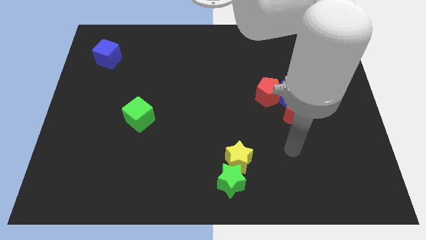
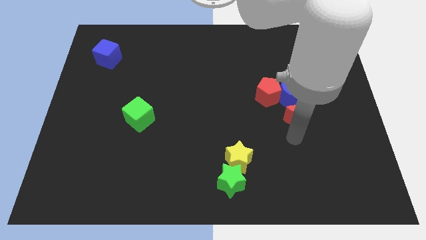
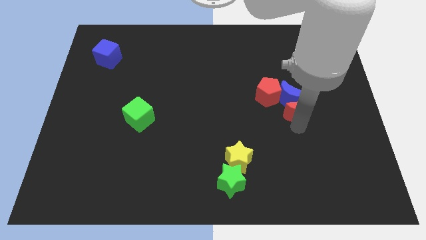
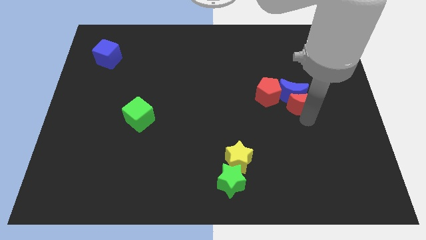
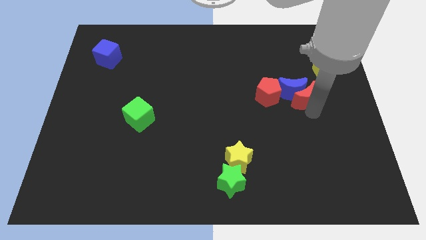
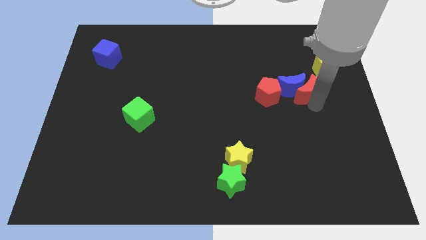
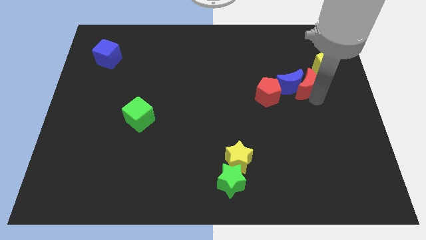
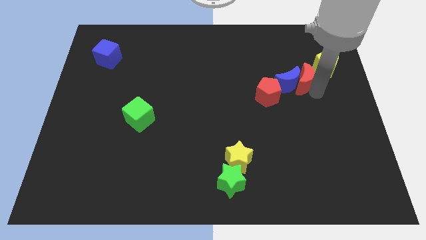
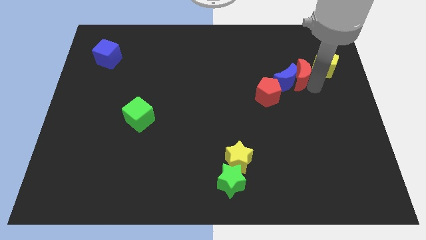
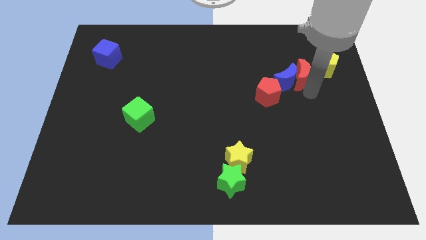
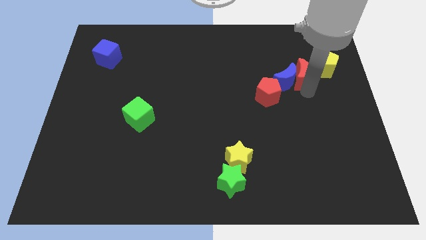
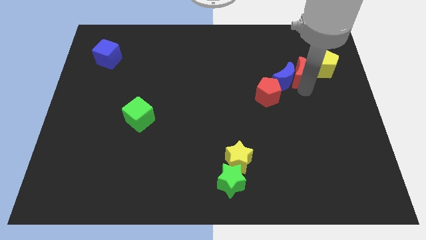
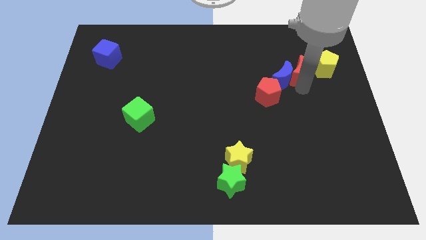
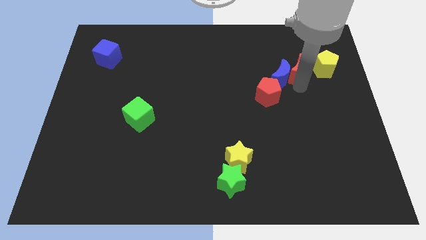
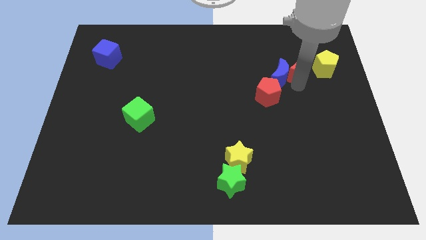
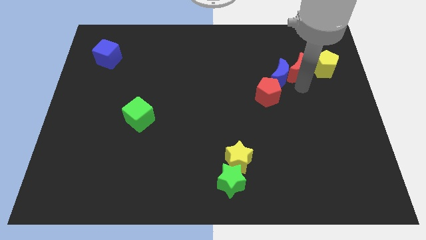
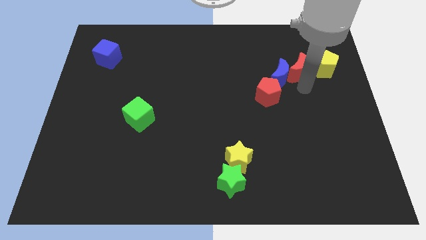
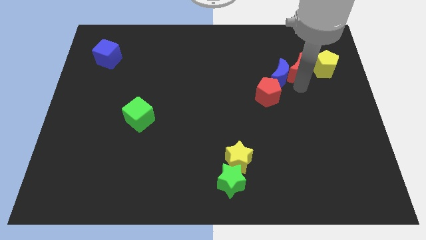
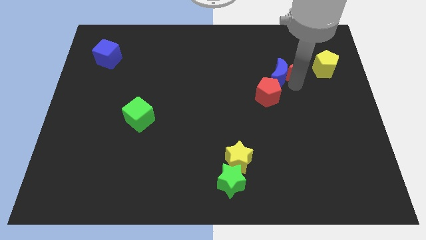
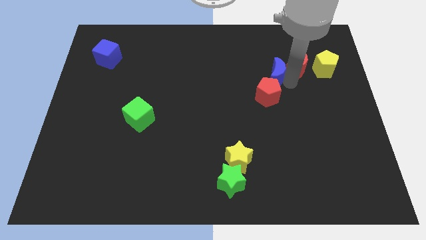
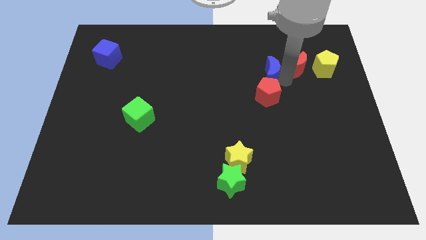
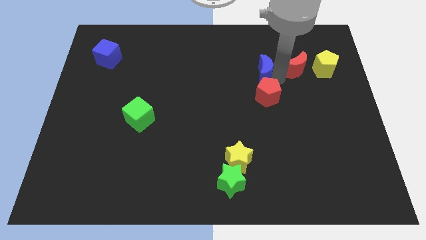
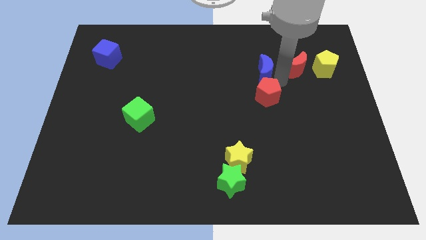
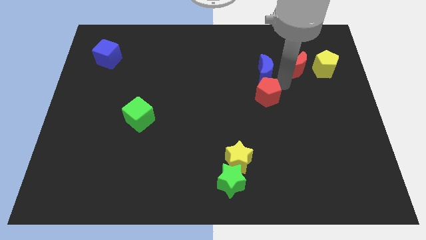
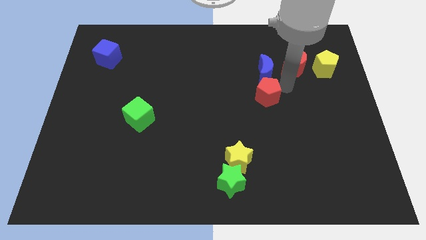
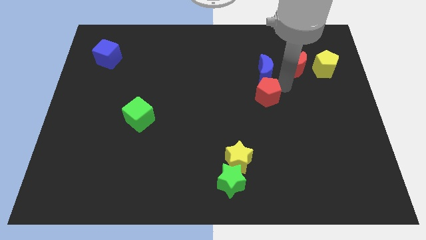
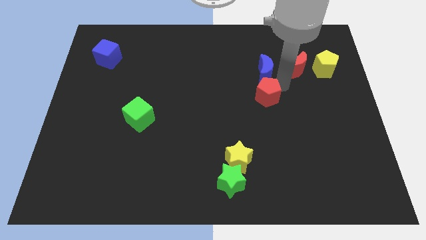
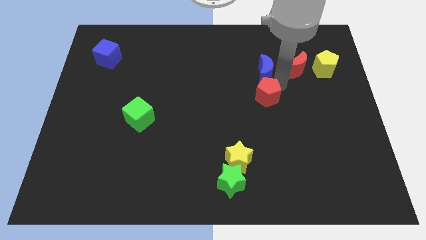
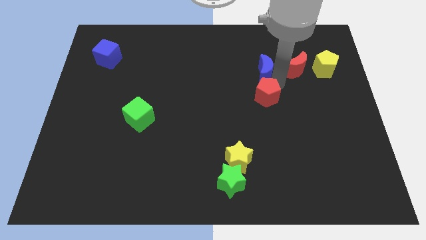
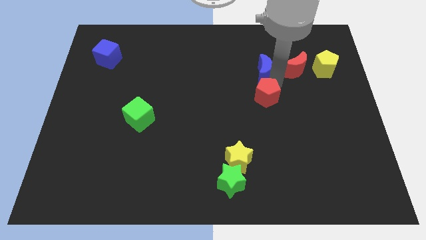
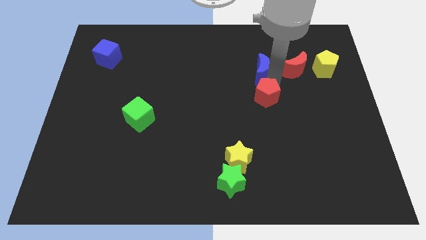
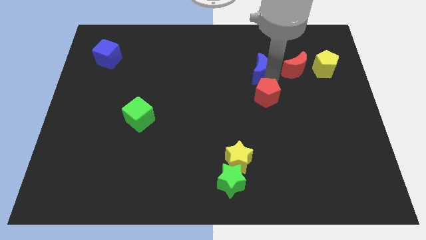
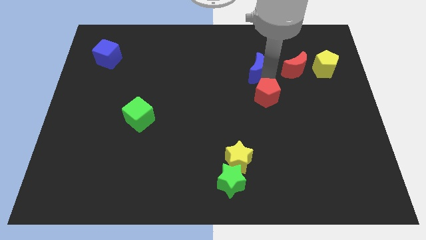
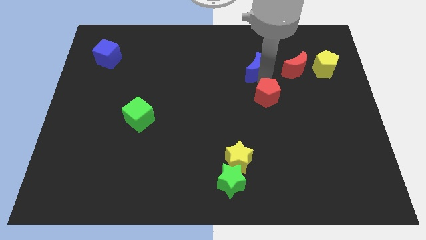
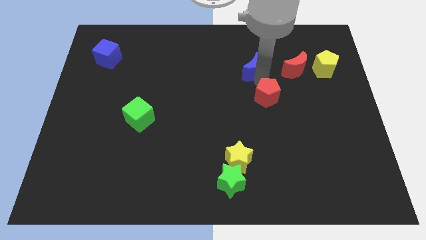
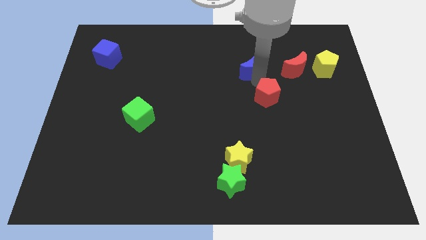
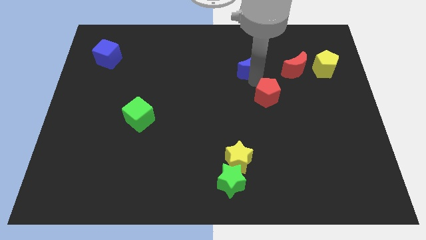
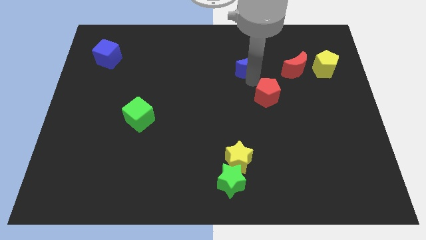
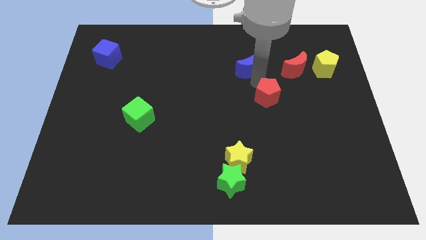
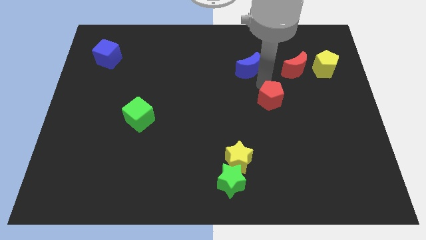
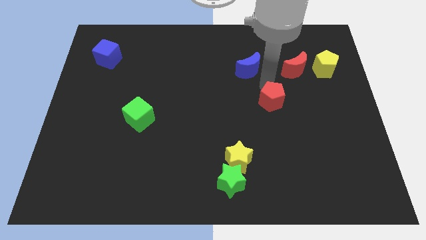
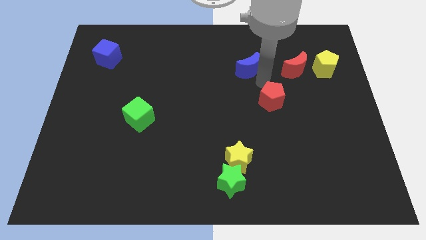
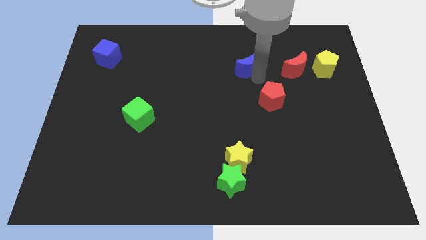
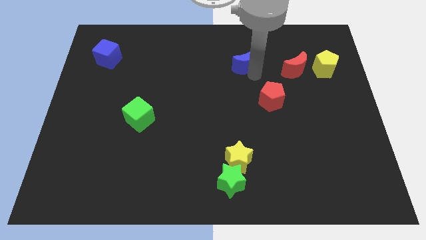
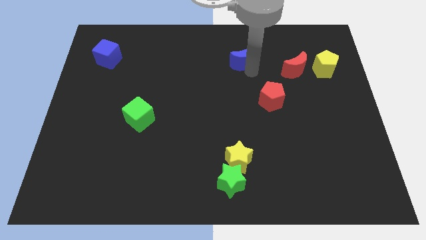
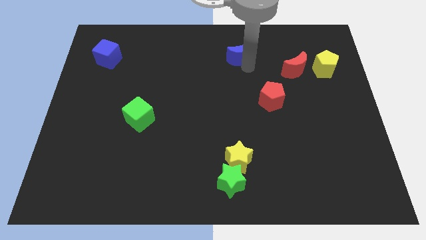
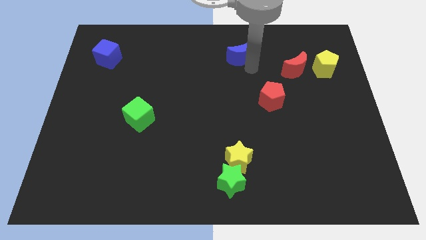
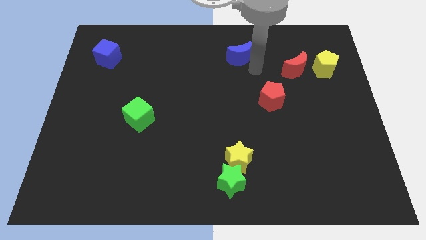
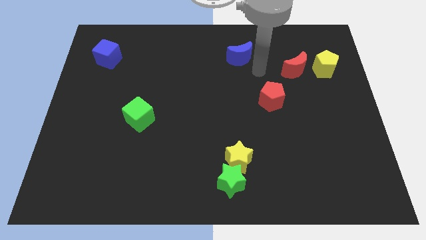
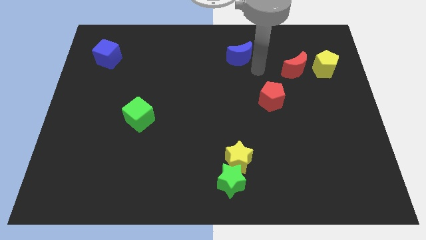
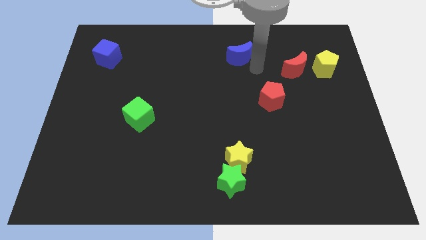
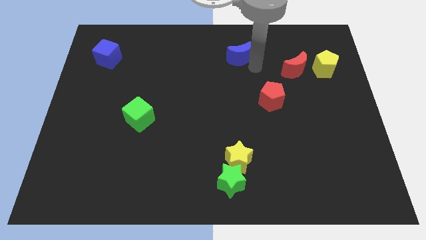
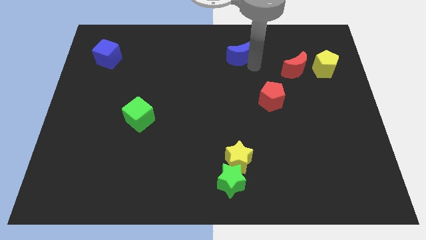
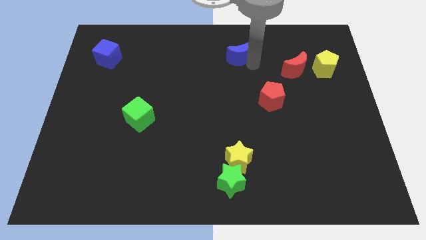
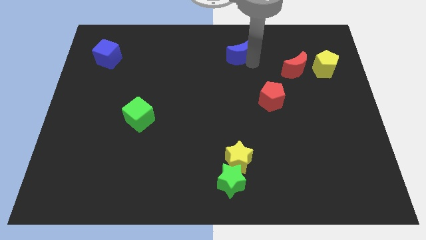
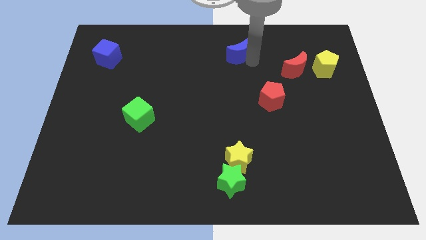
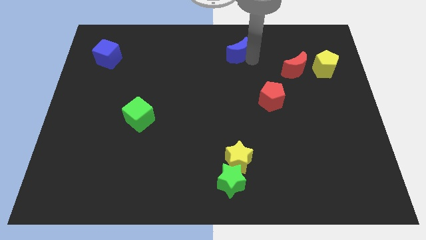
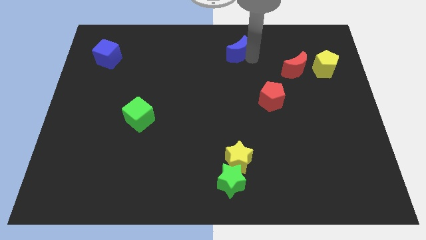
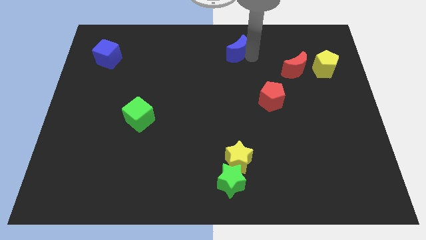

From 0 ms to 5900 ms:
move the blue moon to the top
